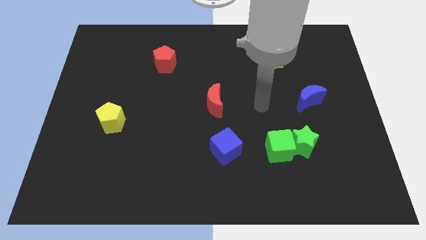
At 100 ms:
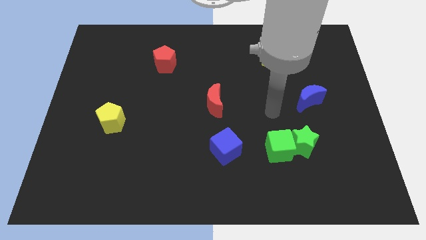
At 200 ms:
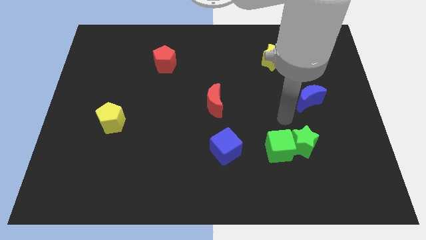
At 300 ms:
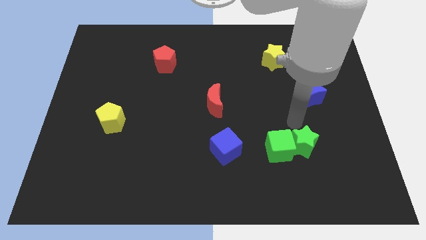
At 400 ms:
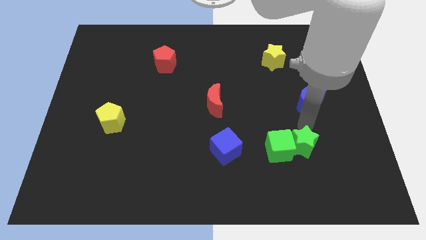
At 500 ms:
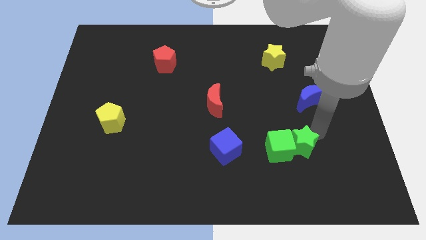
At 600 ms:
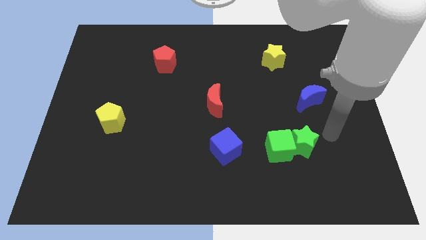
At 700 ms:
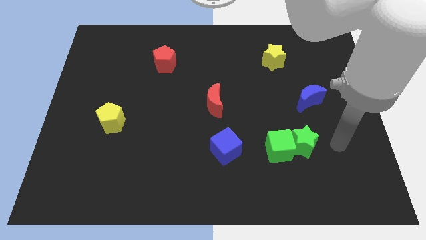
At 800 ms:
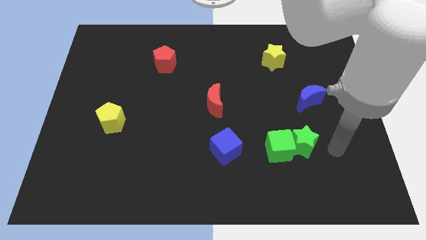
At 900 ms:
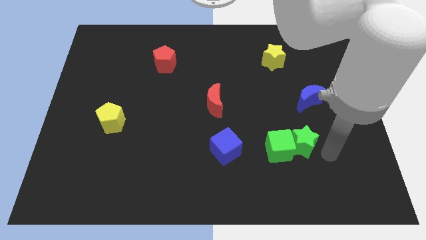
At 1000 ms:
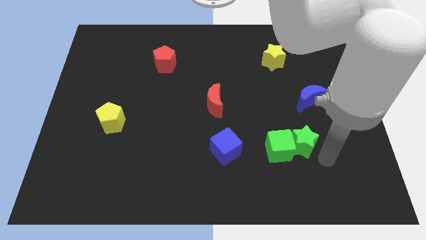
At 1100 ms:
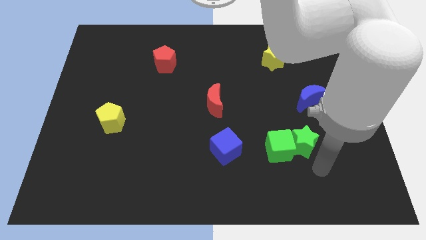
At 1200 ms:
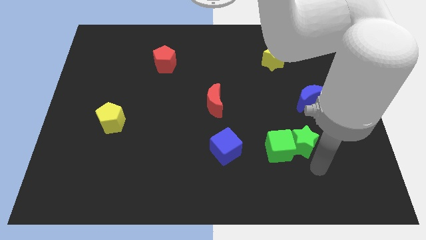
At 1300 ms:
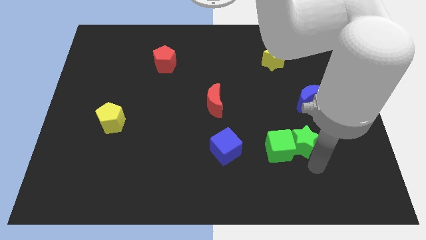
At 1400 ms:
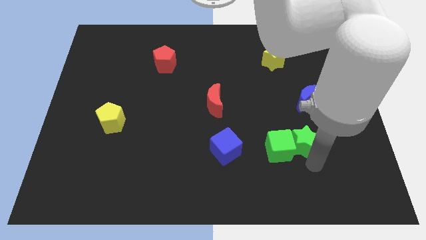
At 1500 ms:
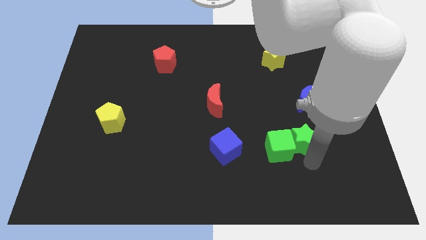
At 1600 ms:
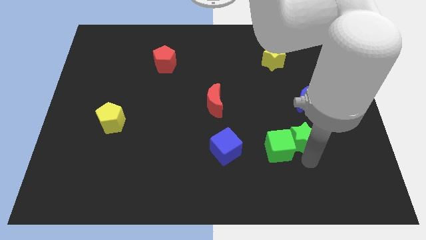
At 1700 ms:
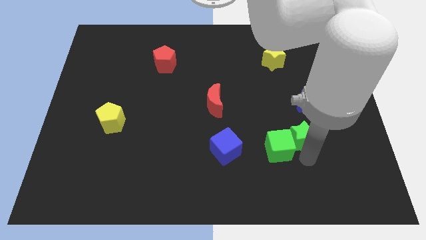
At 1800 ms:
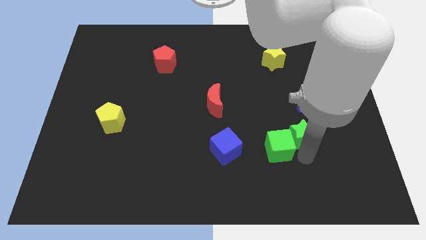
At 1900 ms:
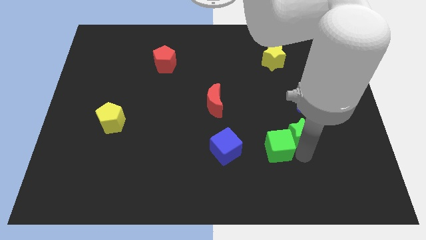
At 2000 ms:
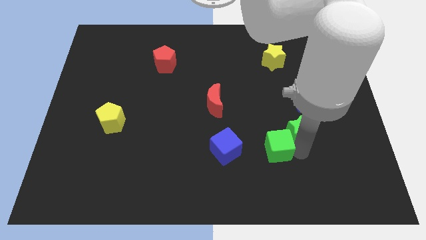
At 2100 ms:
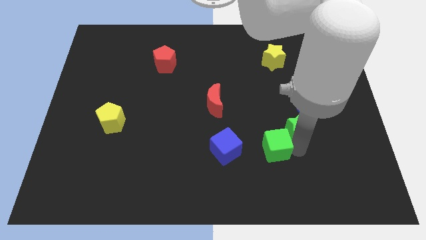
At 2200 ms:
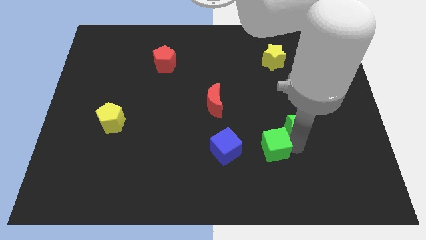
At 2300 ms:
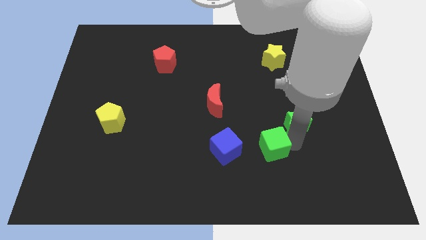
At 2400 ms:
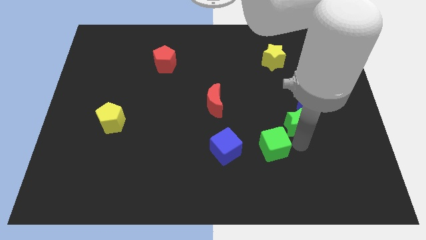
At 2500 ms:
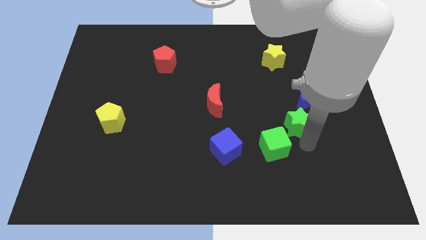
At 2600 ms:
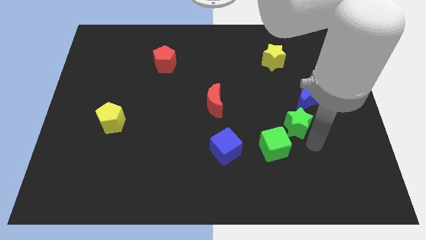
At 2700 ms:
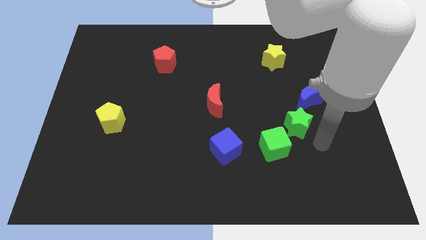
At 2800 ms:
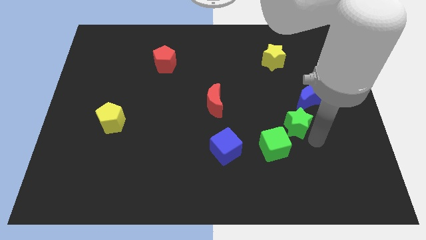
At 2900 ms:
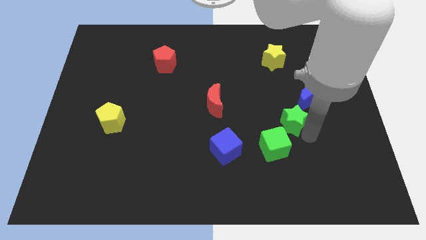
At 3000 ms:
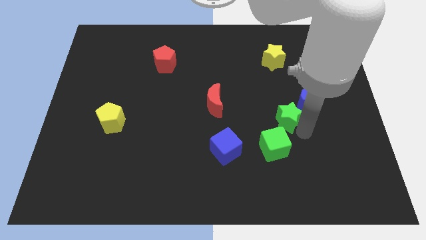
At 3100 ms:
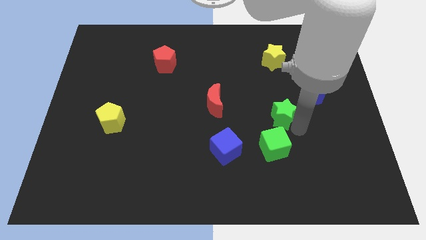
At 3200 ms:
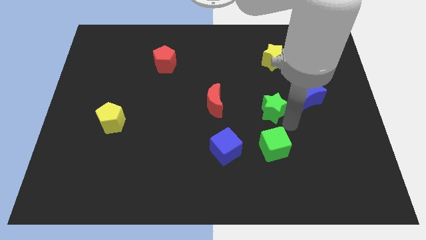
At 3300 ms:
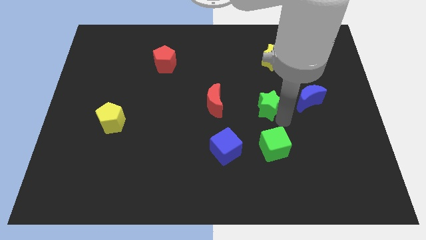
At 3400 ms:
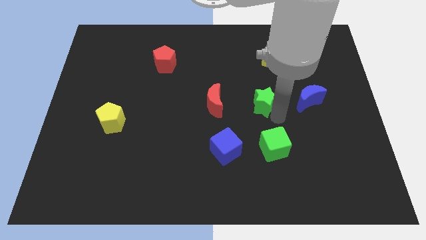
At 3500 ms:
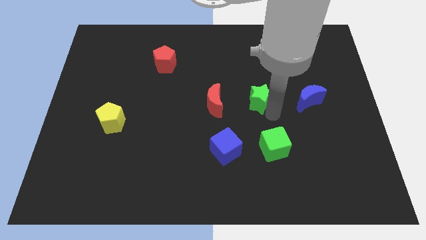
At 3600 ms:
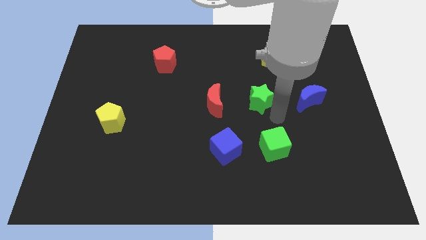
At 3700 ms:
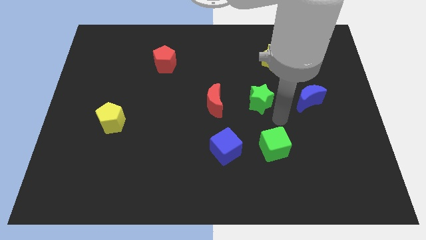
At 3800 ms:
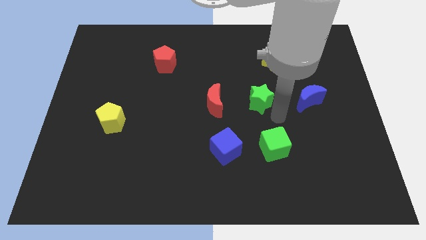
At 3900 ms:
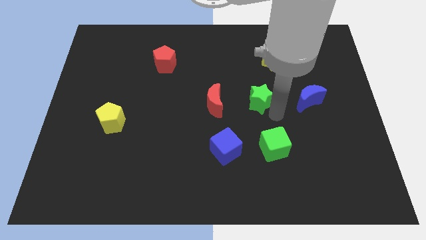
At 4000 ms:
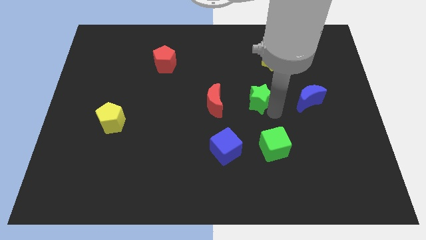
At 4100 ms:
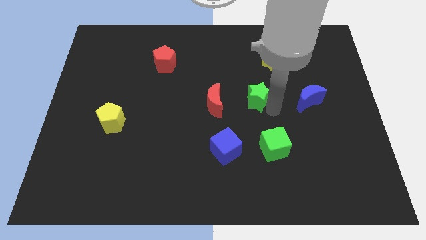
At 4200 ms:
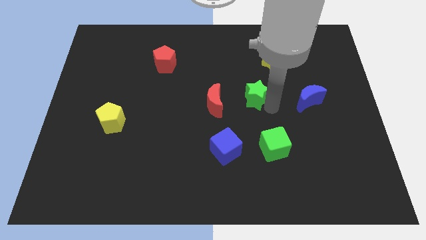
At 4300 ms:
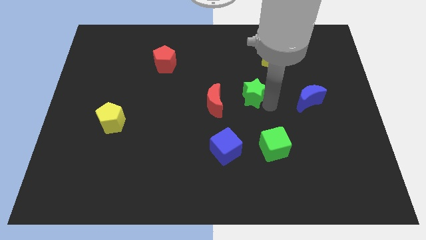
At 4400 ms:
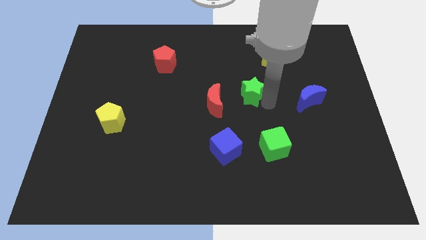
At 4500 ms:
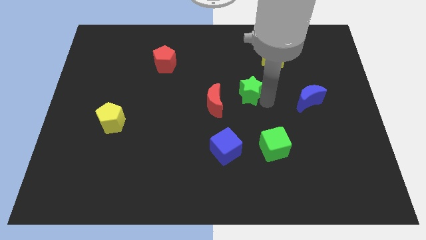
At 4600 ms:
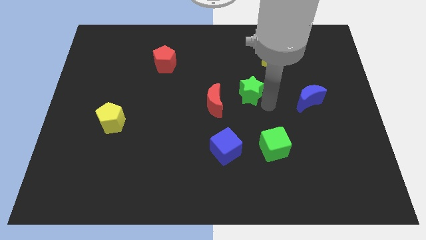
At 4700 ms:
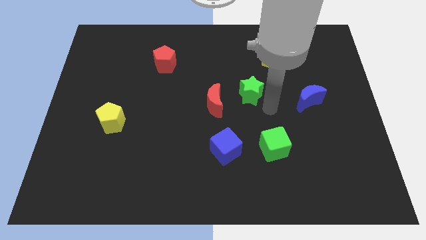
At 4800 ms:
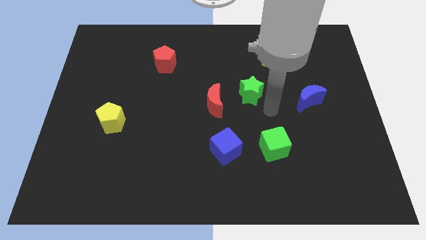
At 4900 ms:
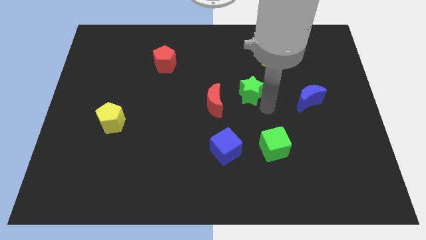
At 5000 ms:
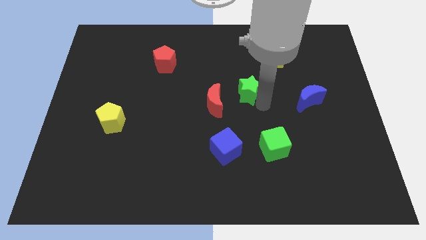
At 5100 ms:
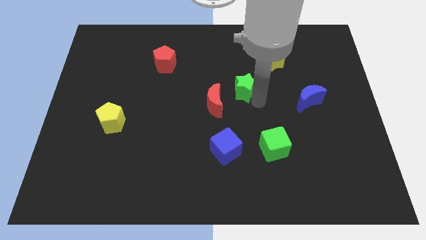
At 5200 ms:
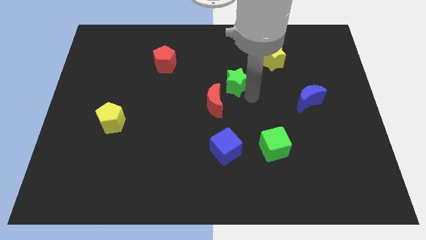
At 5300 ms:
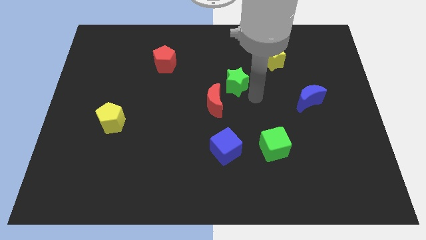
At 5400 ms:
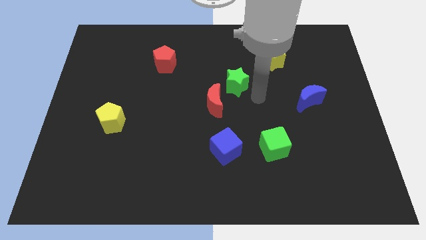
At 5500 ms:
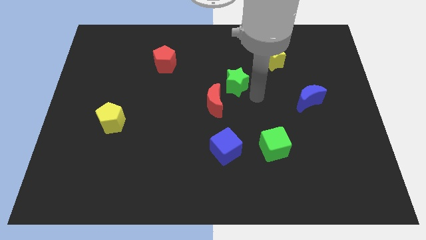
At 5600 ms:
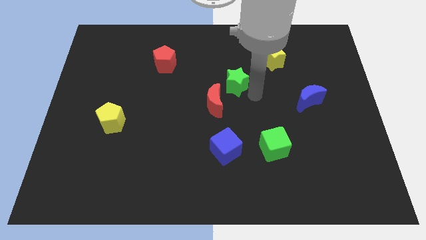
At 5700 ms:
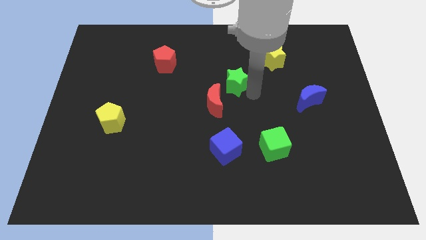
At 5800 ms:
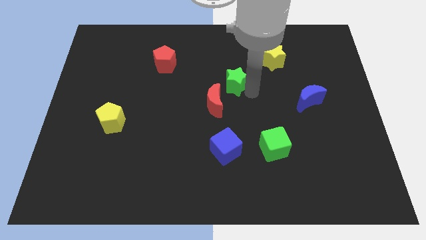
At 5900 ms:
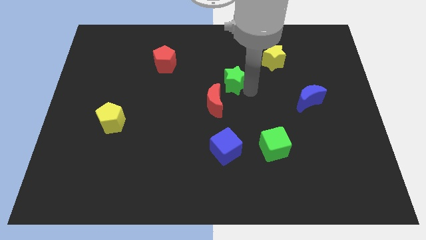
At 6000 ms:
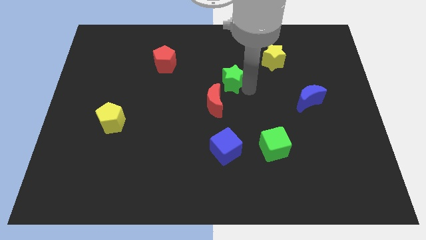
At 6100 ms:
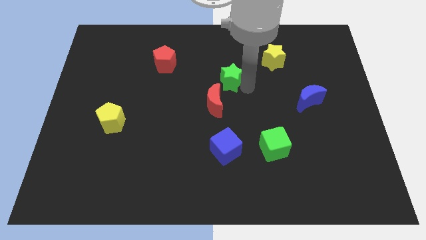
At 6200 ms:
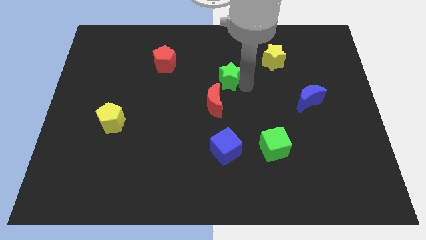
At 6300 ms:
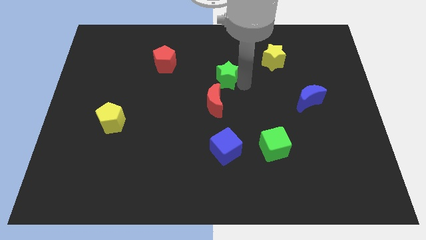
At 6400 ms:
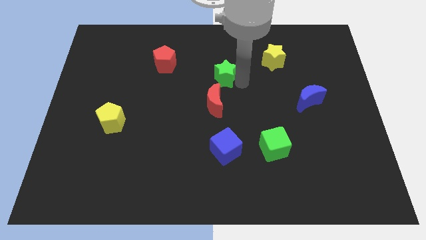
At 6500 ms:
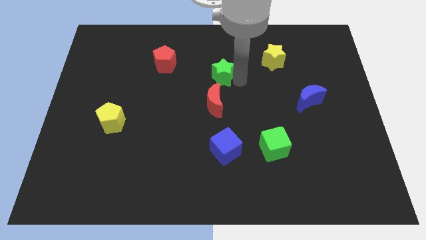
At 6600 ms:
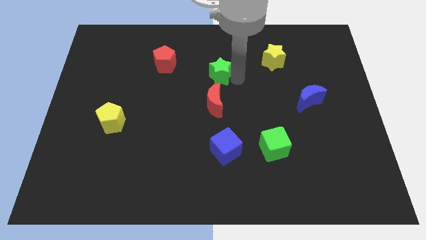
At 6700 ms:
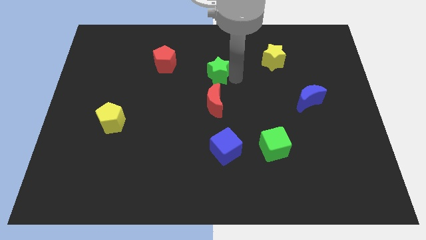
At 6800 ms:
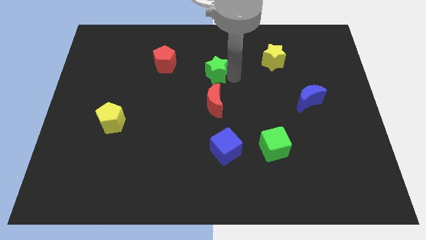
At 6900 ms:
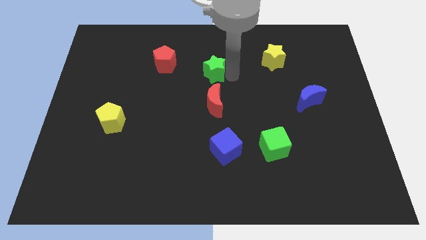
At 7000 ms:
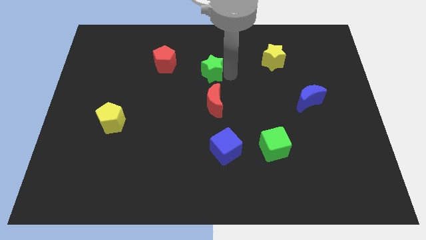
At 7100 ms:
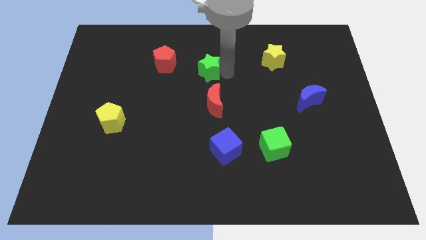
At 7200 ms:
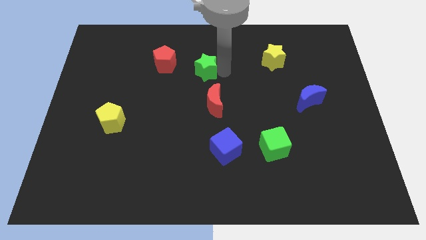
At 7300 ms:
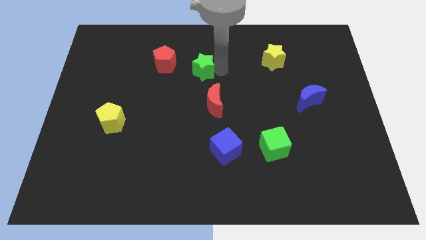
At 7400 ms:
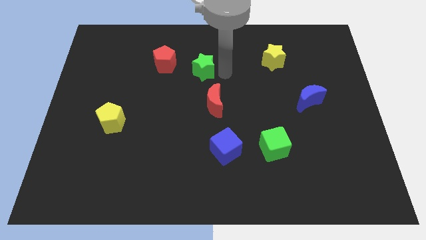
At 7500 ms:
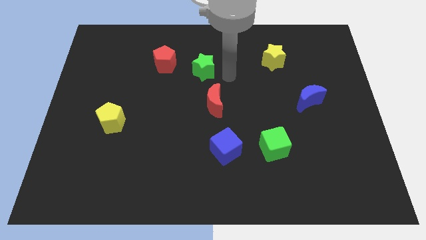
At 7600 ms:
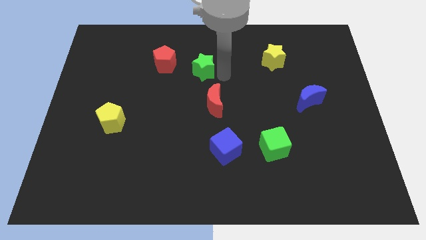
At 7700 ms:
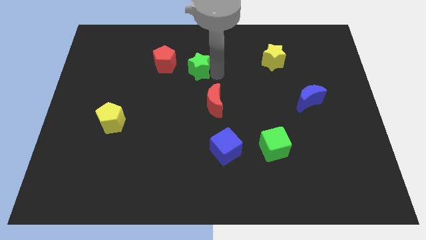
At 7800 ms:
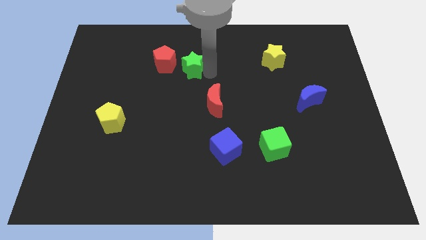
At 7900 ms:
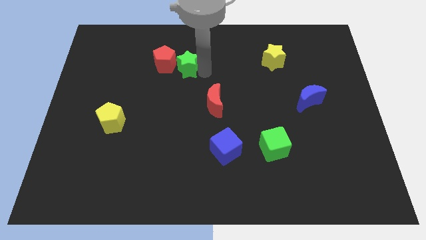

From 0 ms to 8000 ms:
push the green star next to the red pentagon
